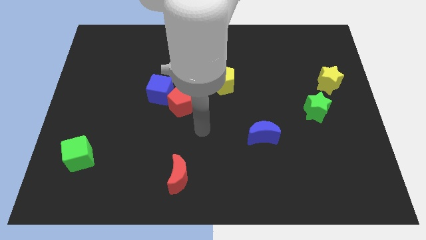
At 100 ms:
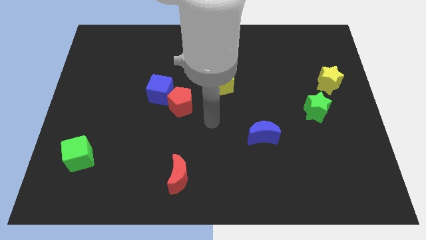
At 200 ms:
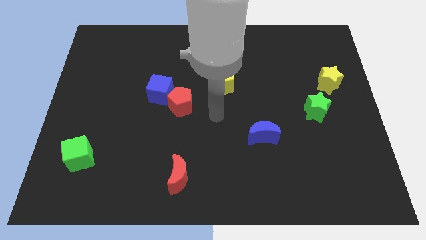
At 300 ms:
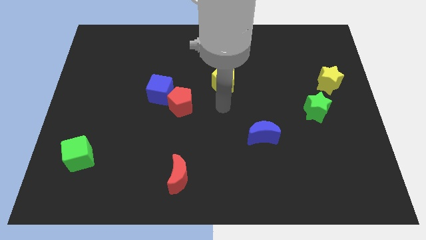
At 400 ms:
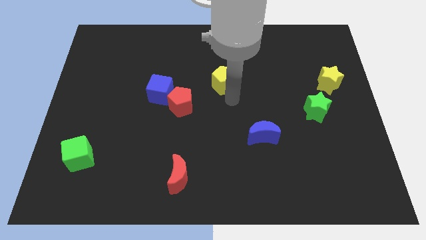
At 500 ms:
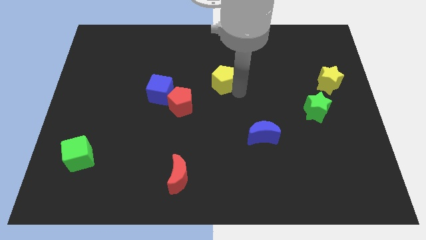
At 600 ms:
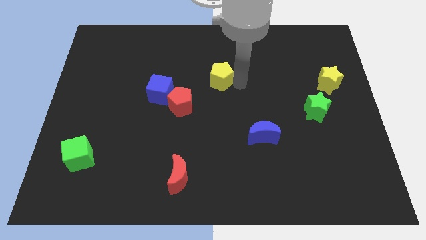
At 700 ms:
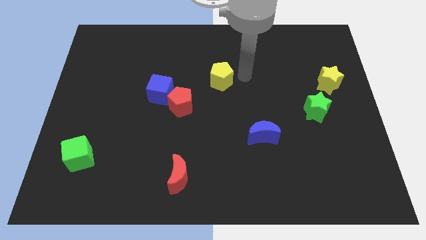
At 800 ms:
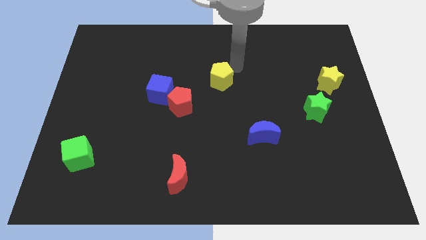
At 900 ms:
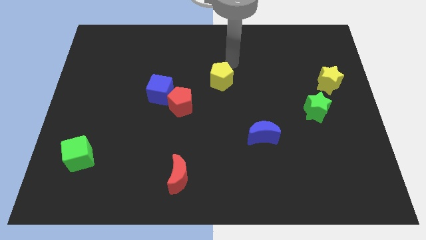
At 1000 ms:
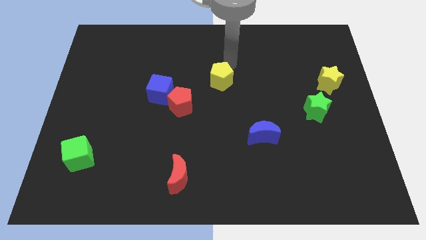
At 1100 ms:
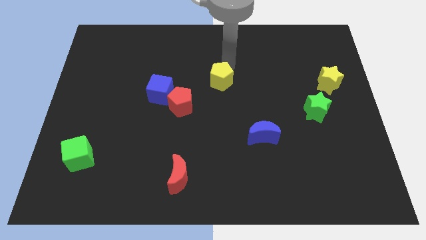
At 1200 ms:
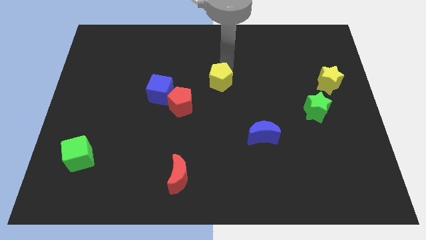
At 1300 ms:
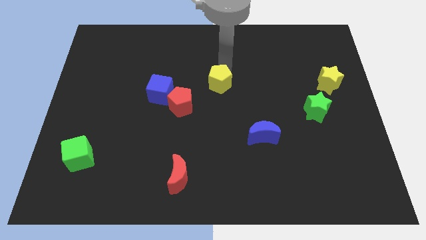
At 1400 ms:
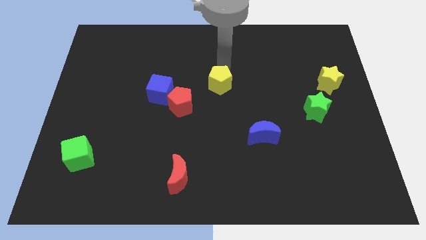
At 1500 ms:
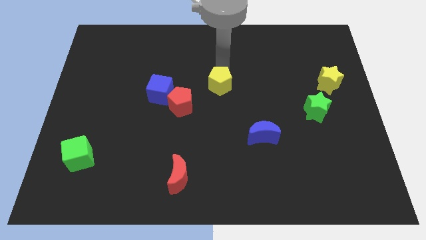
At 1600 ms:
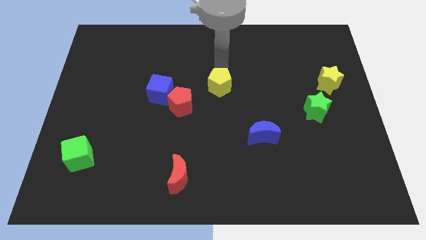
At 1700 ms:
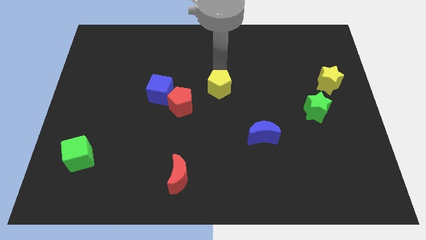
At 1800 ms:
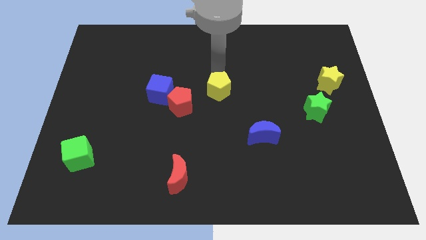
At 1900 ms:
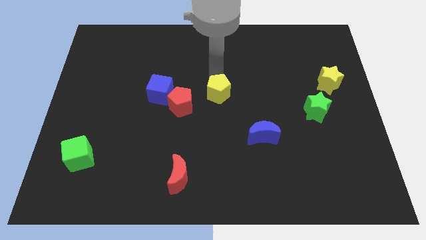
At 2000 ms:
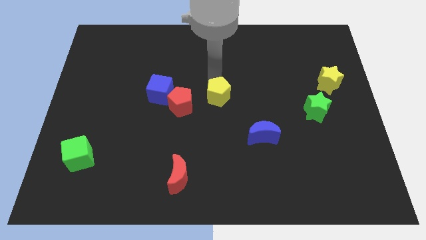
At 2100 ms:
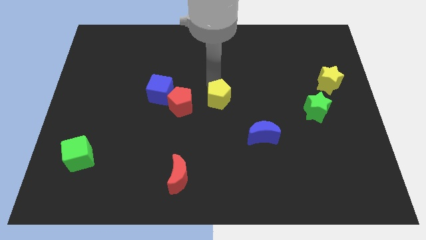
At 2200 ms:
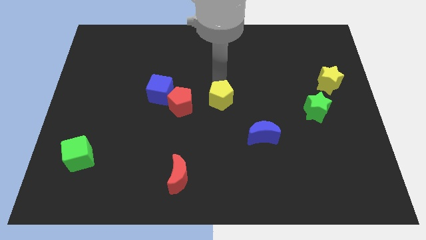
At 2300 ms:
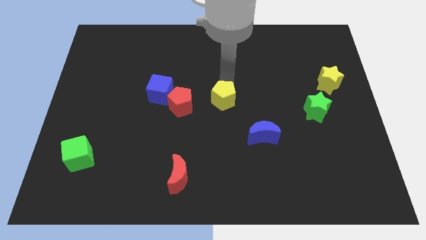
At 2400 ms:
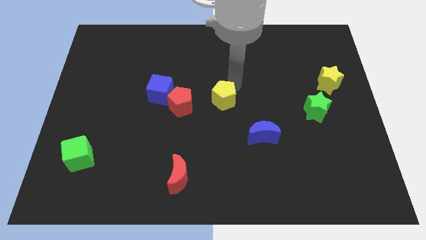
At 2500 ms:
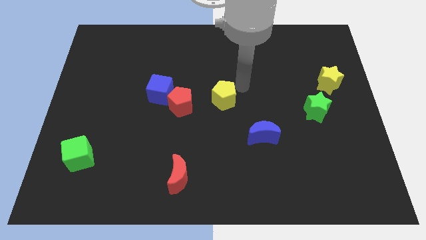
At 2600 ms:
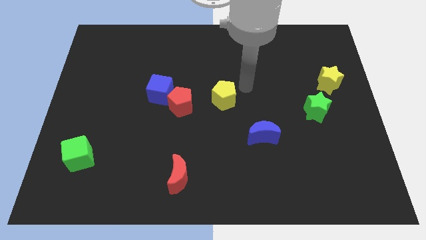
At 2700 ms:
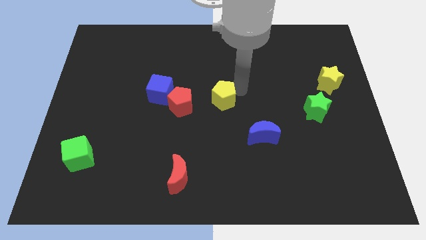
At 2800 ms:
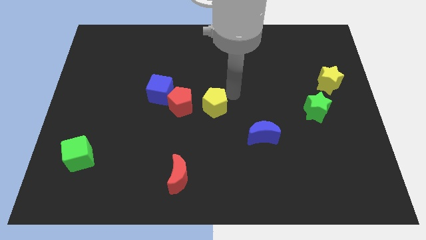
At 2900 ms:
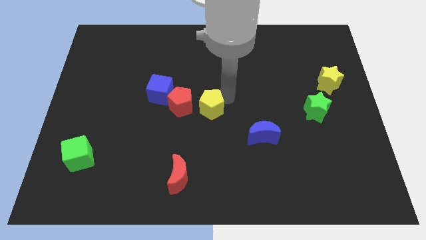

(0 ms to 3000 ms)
slide the yellow pentagon diagonally down and left slightly

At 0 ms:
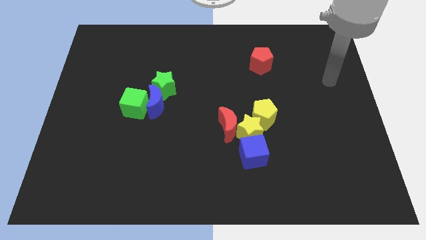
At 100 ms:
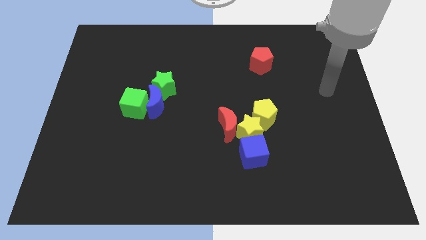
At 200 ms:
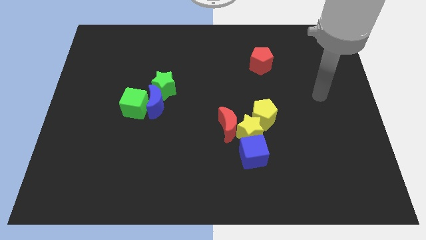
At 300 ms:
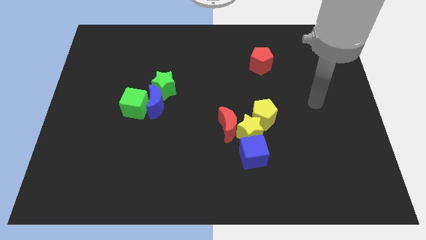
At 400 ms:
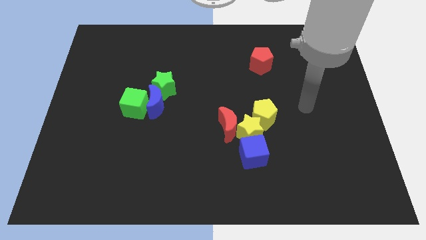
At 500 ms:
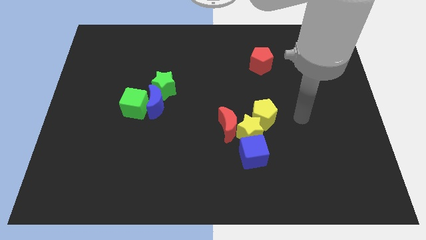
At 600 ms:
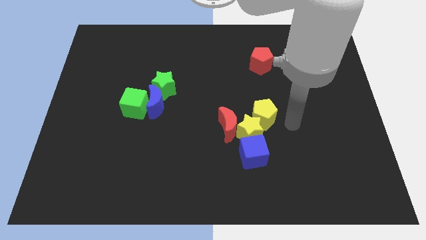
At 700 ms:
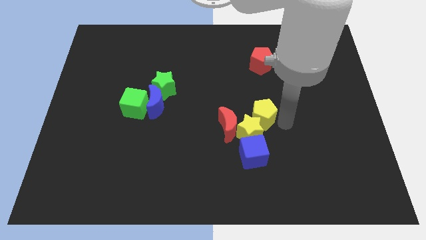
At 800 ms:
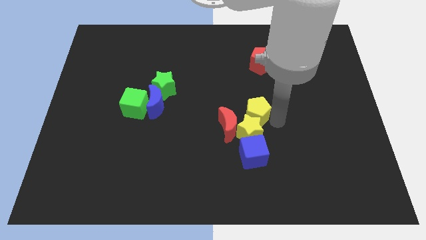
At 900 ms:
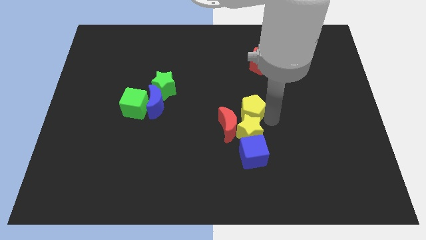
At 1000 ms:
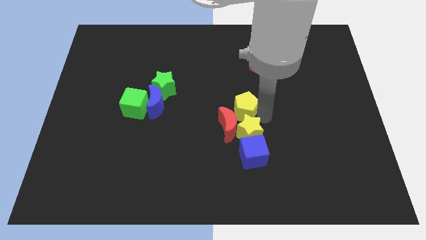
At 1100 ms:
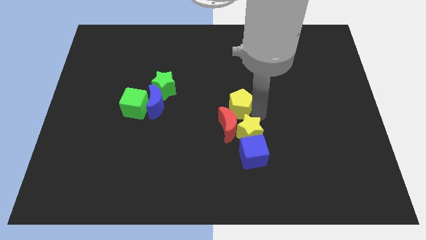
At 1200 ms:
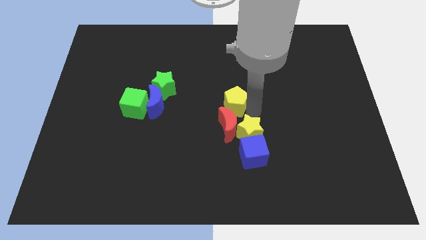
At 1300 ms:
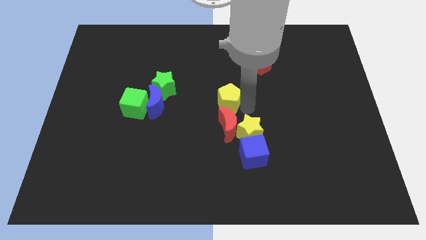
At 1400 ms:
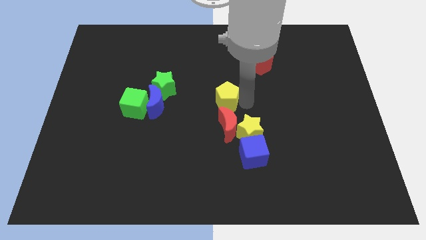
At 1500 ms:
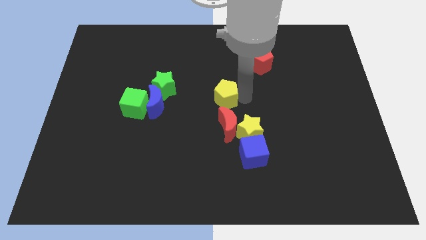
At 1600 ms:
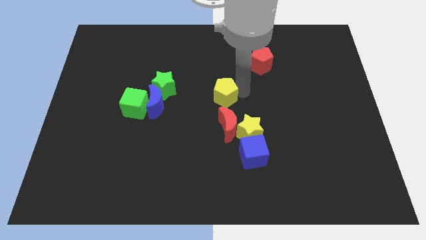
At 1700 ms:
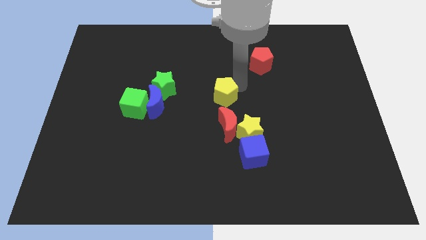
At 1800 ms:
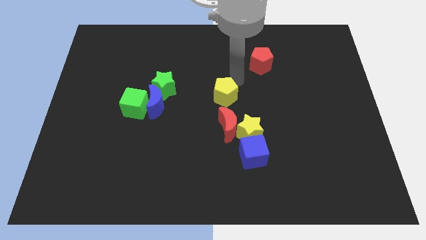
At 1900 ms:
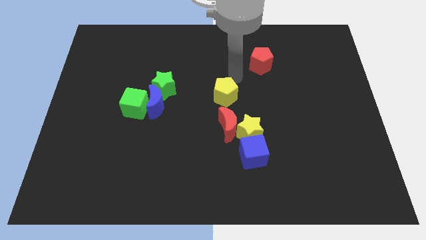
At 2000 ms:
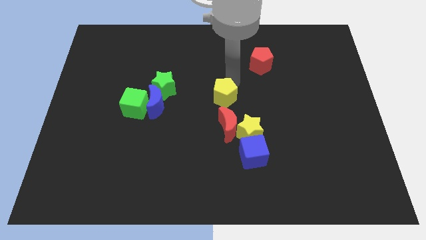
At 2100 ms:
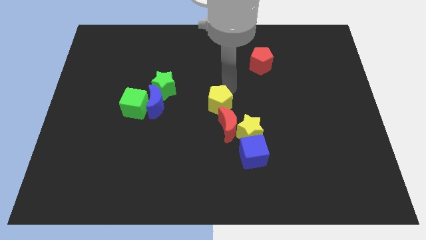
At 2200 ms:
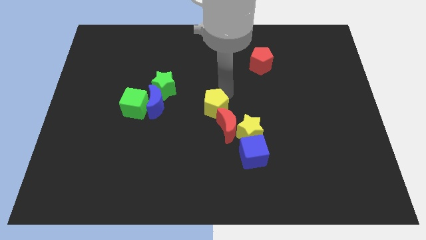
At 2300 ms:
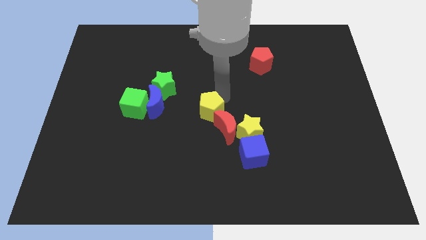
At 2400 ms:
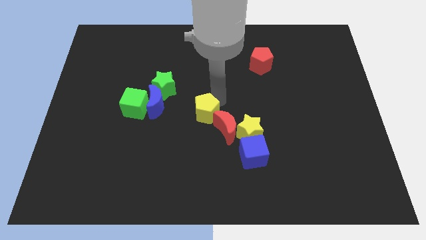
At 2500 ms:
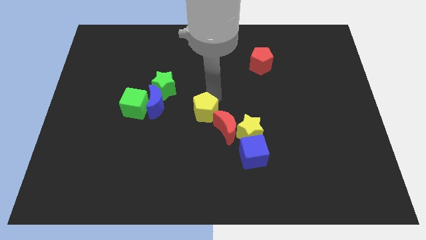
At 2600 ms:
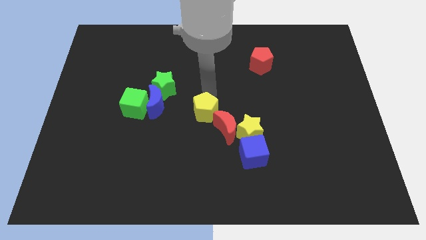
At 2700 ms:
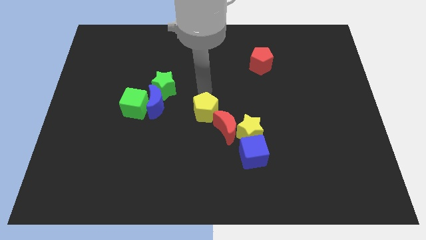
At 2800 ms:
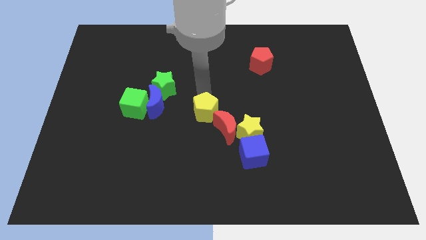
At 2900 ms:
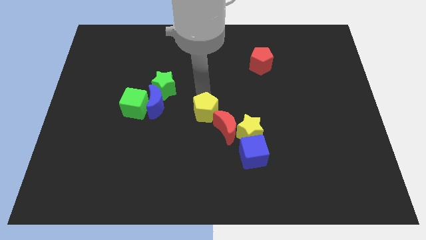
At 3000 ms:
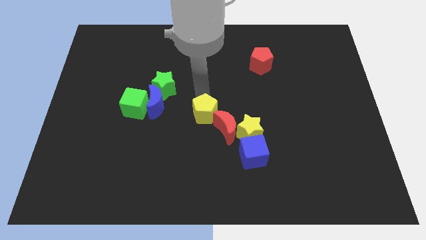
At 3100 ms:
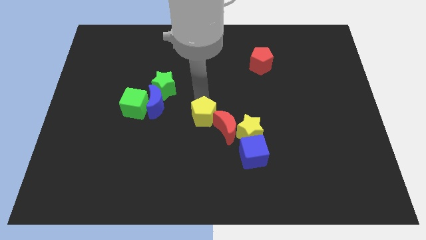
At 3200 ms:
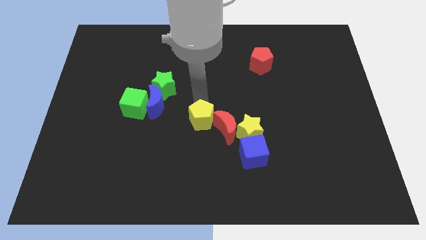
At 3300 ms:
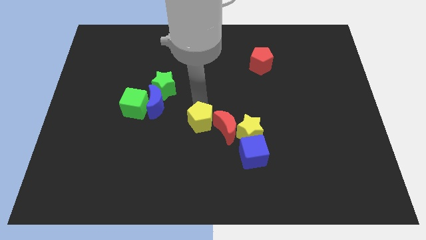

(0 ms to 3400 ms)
slightly move the yellow pentagon diagonally down and to the left

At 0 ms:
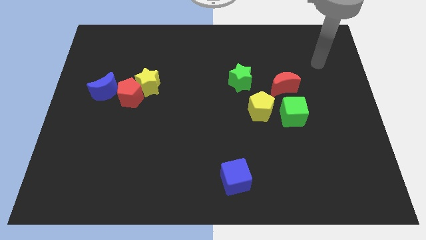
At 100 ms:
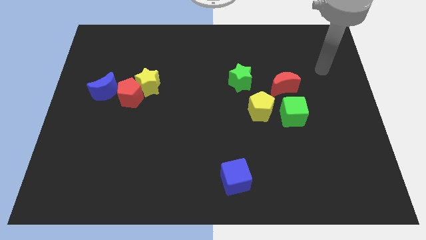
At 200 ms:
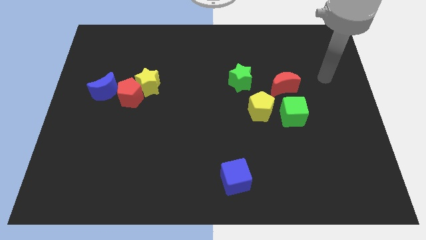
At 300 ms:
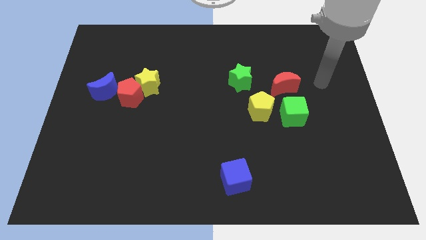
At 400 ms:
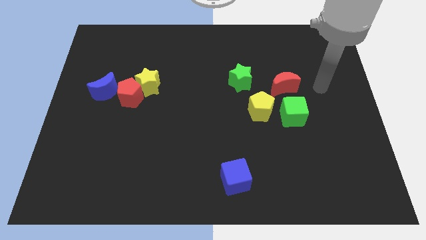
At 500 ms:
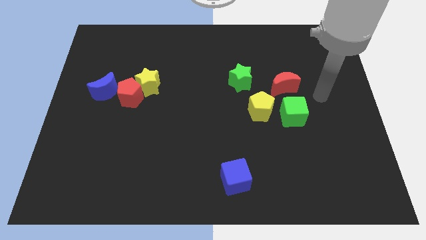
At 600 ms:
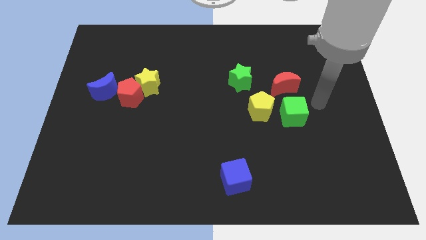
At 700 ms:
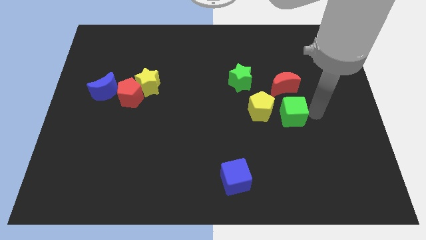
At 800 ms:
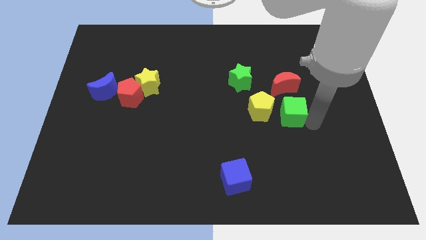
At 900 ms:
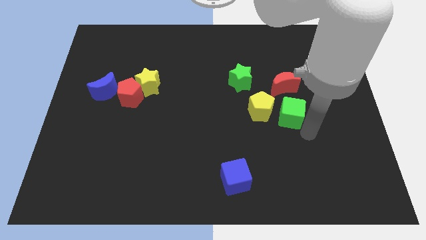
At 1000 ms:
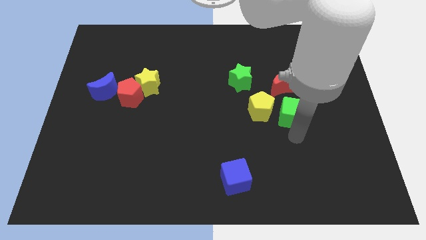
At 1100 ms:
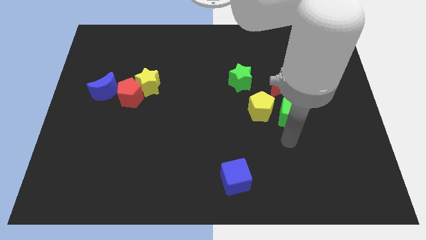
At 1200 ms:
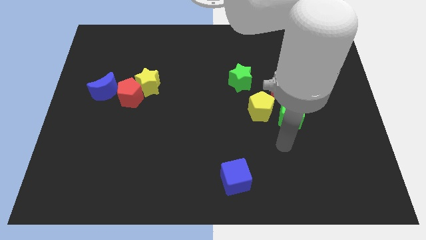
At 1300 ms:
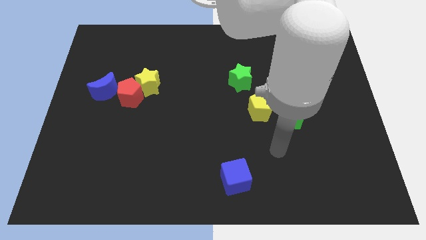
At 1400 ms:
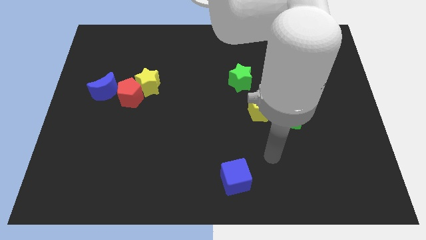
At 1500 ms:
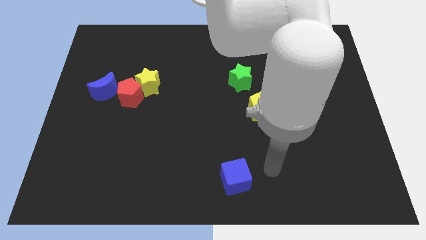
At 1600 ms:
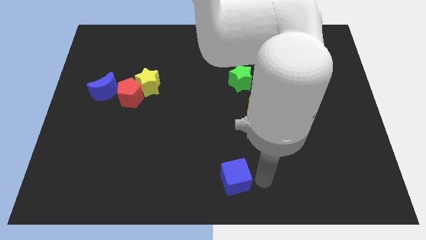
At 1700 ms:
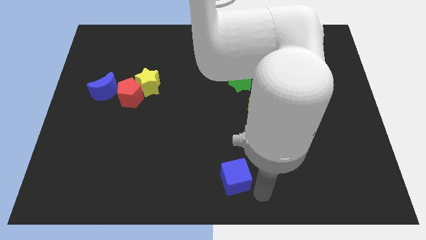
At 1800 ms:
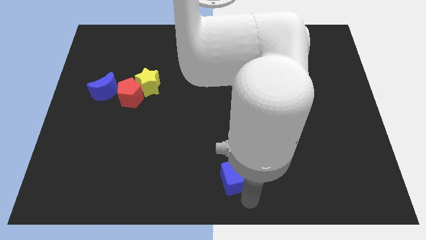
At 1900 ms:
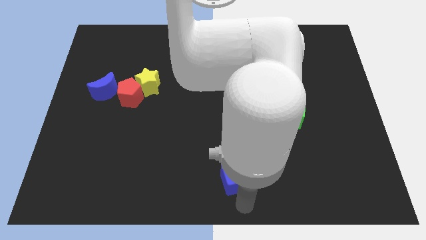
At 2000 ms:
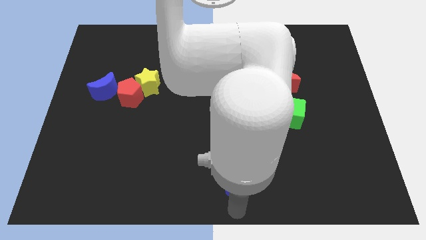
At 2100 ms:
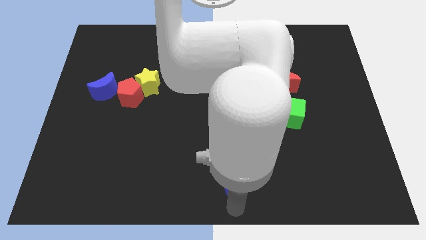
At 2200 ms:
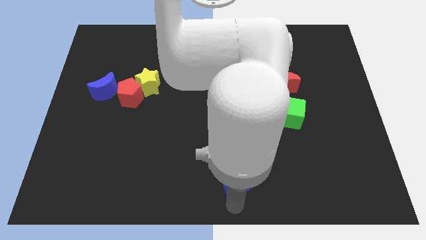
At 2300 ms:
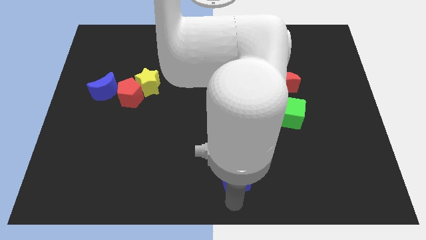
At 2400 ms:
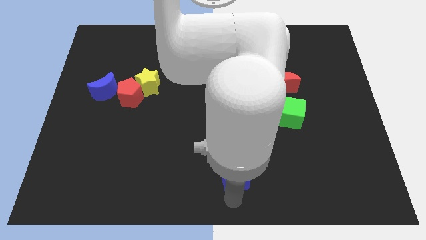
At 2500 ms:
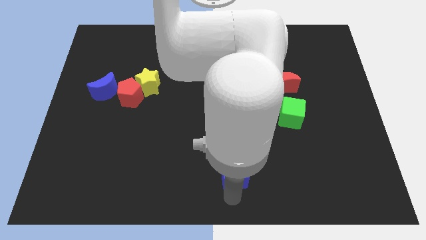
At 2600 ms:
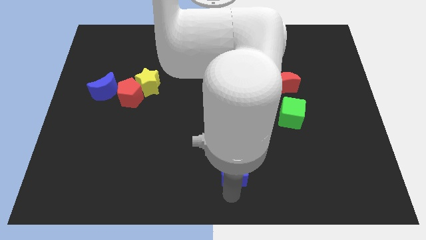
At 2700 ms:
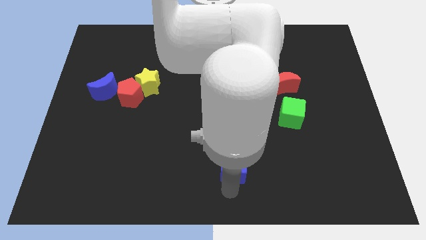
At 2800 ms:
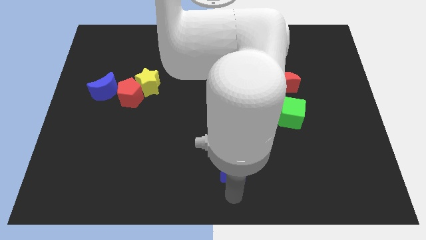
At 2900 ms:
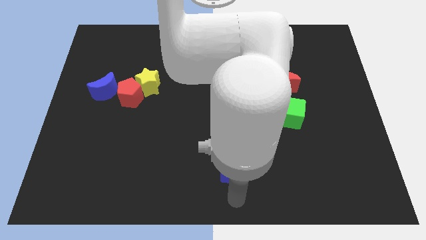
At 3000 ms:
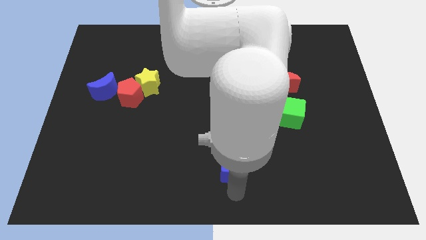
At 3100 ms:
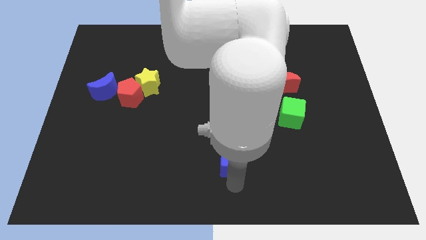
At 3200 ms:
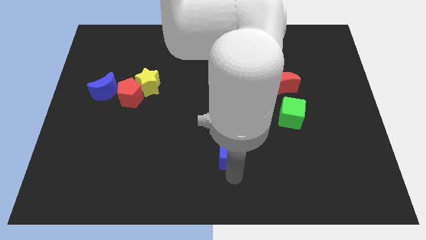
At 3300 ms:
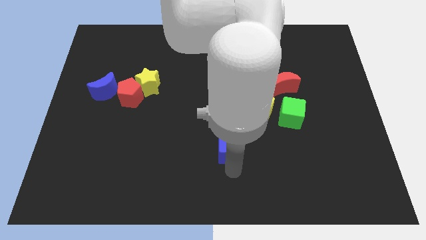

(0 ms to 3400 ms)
slightly push the blue cube upwards
